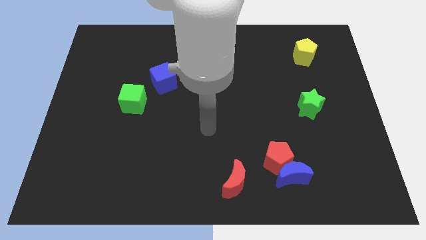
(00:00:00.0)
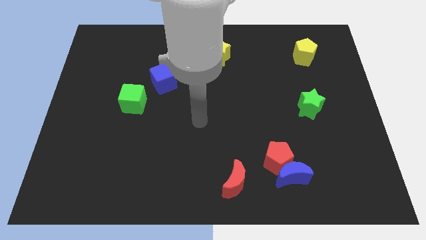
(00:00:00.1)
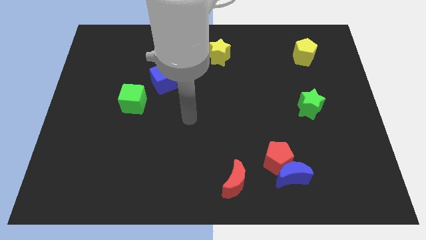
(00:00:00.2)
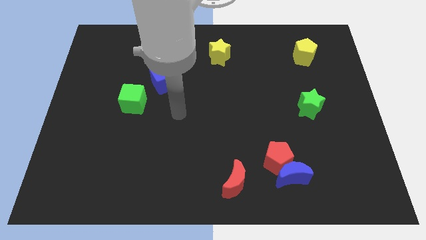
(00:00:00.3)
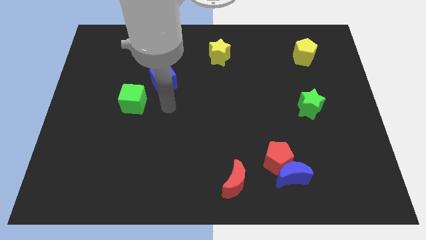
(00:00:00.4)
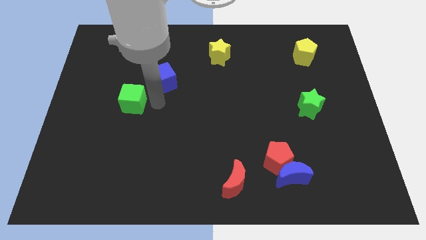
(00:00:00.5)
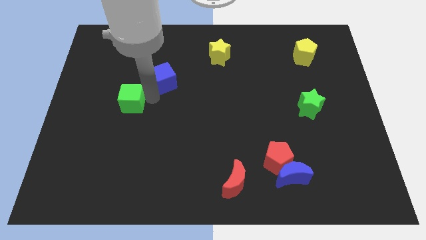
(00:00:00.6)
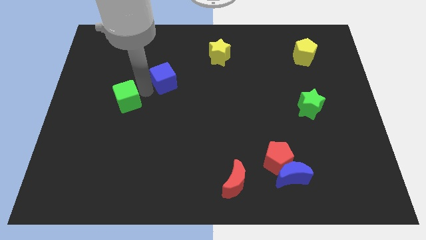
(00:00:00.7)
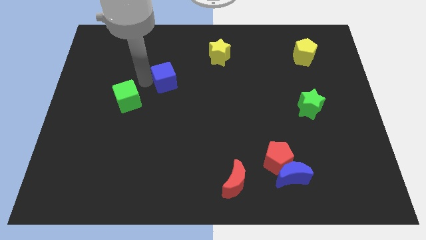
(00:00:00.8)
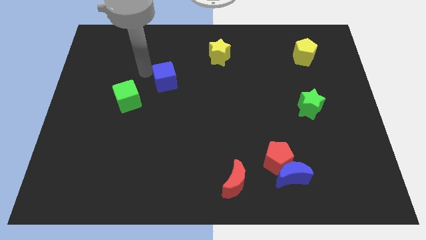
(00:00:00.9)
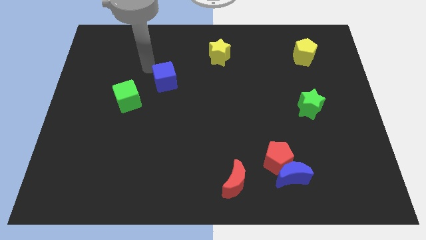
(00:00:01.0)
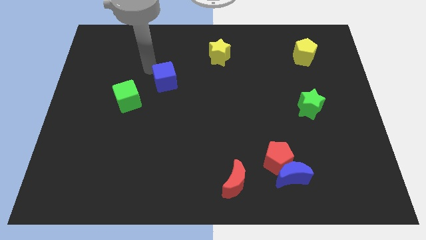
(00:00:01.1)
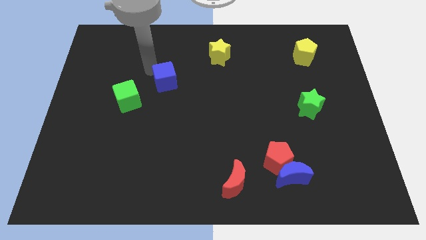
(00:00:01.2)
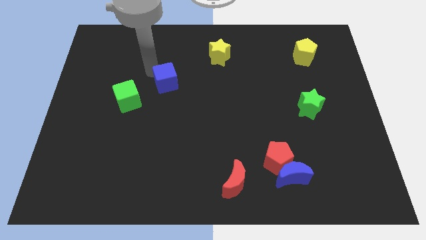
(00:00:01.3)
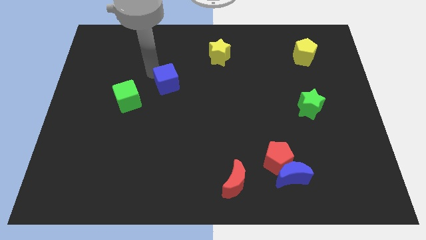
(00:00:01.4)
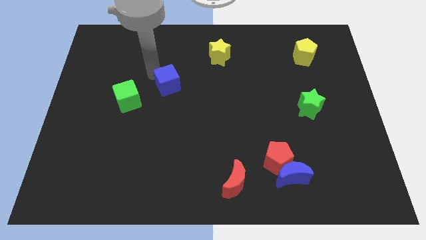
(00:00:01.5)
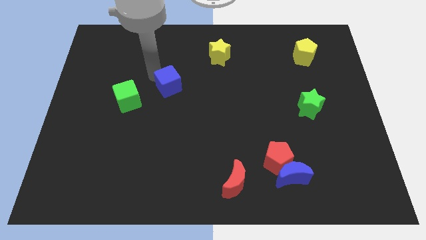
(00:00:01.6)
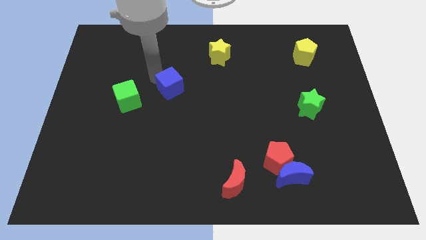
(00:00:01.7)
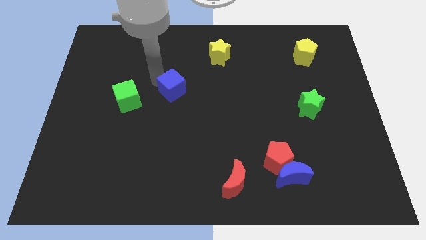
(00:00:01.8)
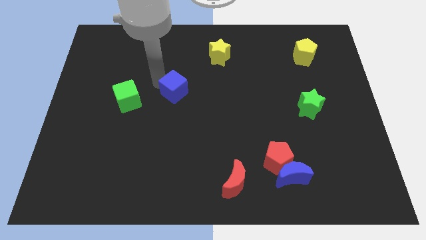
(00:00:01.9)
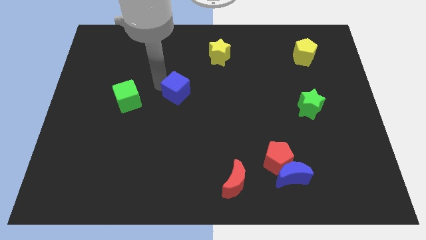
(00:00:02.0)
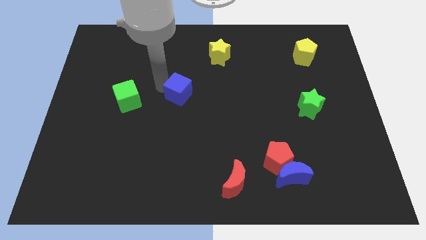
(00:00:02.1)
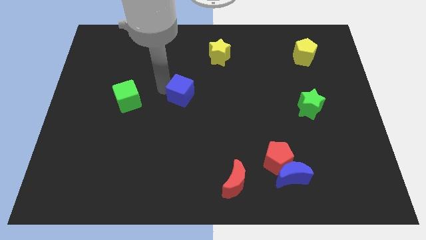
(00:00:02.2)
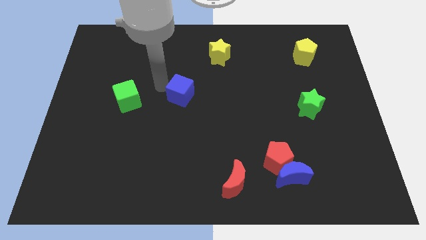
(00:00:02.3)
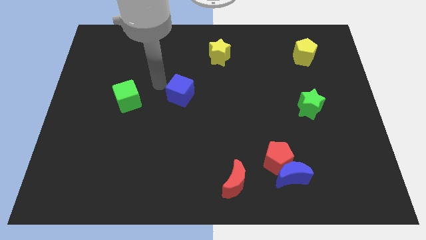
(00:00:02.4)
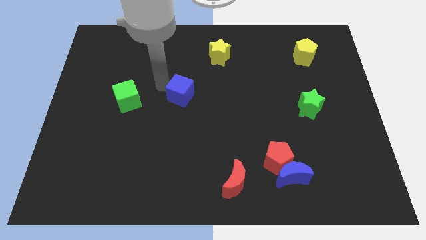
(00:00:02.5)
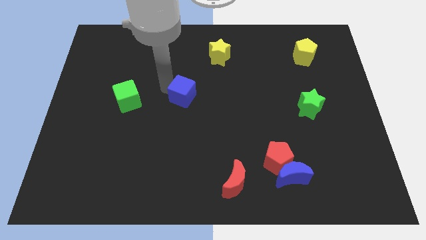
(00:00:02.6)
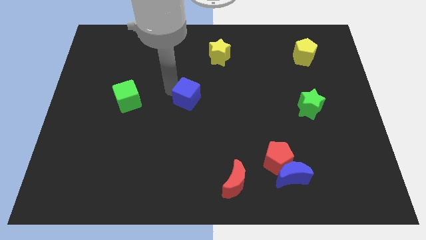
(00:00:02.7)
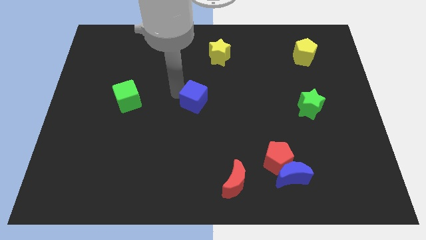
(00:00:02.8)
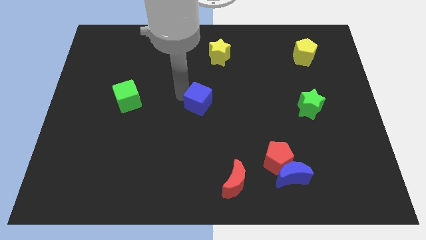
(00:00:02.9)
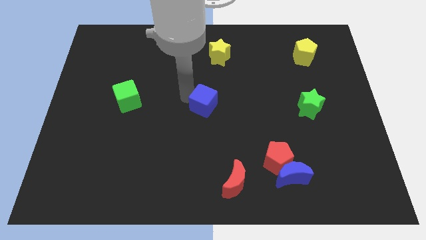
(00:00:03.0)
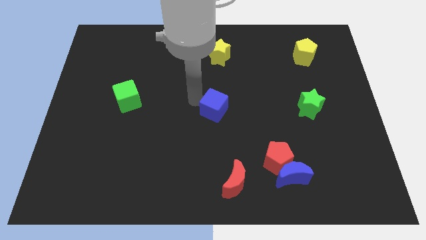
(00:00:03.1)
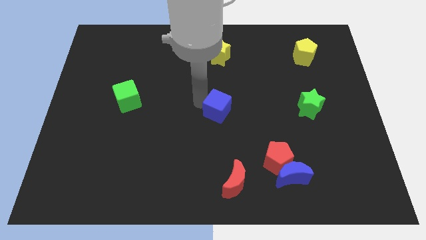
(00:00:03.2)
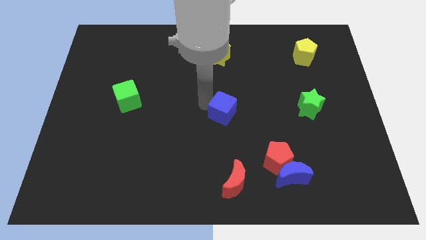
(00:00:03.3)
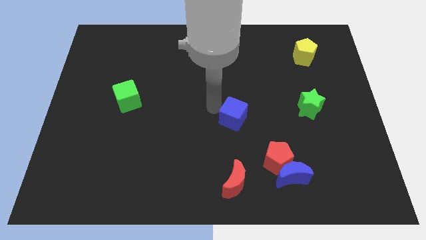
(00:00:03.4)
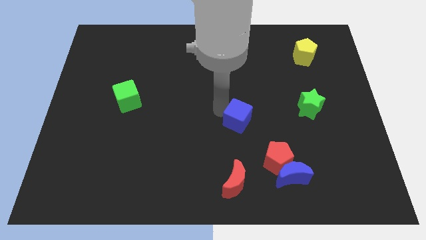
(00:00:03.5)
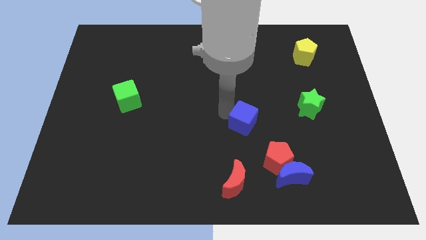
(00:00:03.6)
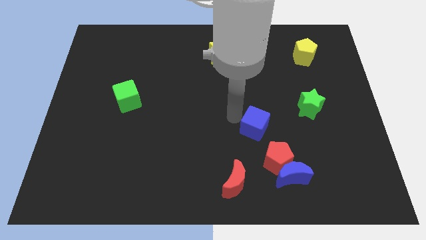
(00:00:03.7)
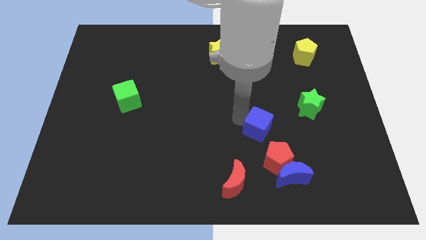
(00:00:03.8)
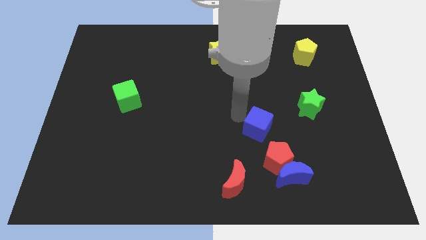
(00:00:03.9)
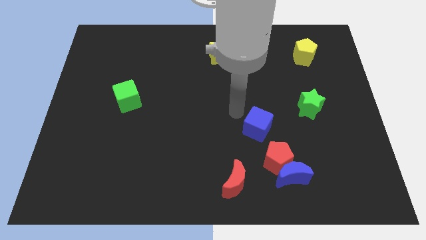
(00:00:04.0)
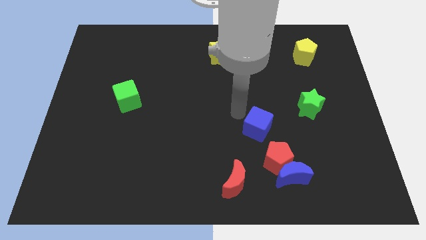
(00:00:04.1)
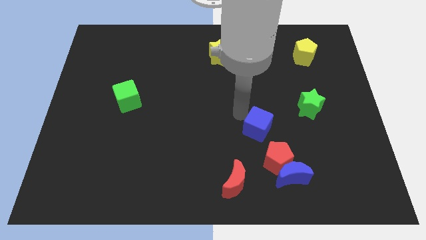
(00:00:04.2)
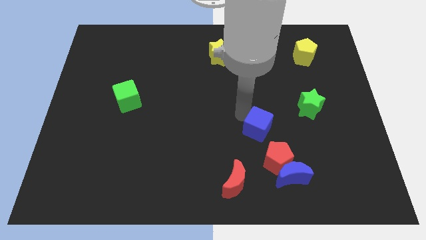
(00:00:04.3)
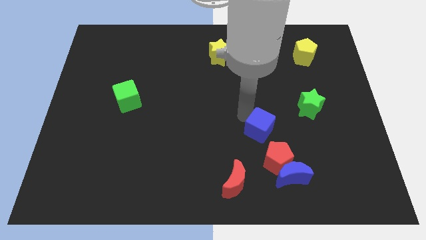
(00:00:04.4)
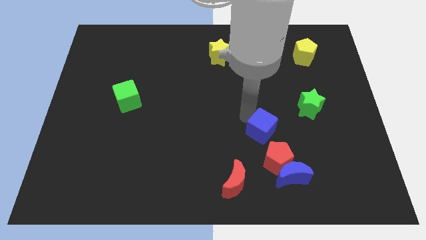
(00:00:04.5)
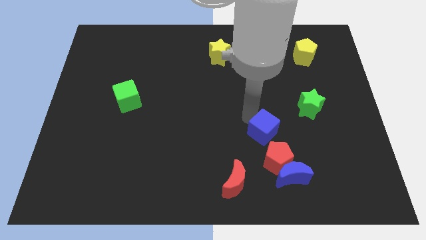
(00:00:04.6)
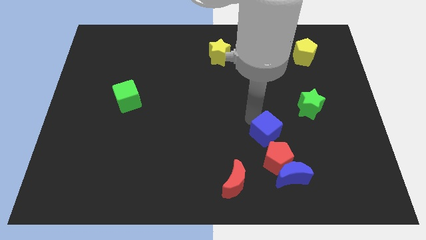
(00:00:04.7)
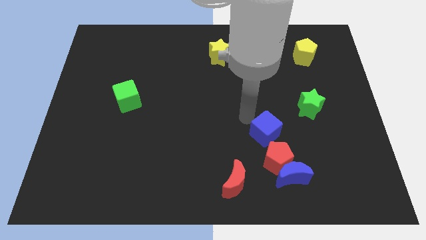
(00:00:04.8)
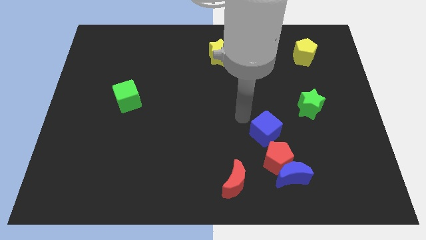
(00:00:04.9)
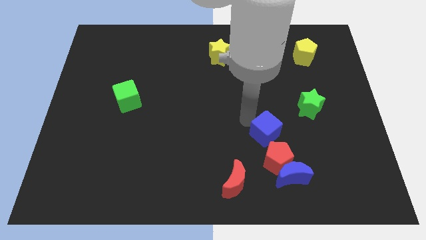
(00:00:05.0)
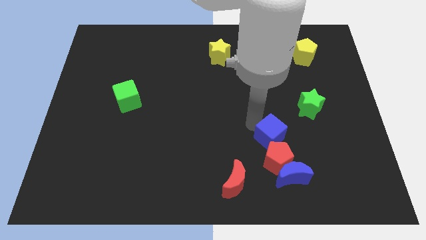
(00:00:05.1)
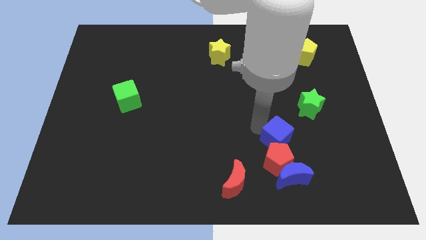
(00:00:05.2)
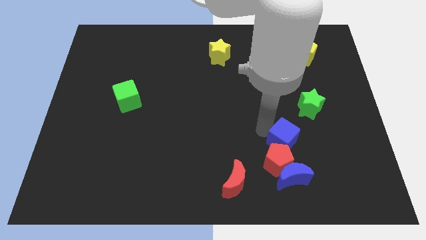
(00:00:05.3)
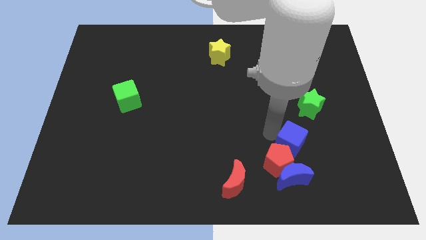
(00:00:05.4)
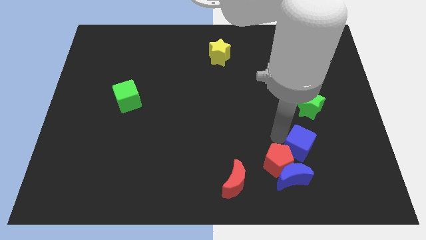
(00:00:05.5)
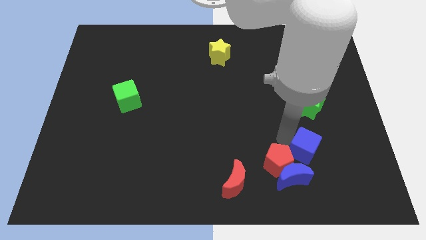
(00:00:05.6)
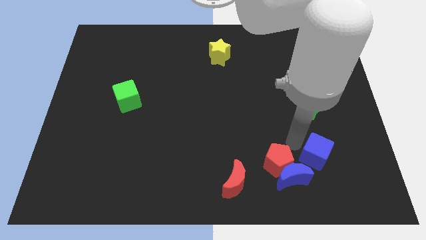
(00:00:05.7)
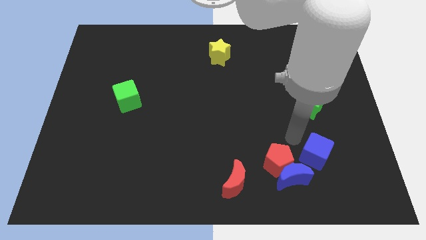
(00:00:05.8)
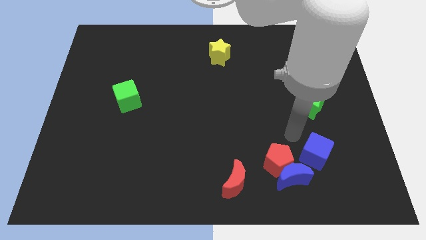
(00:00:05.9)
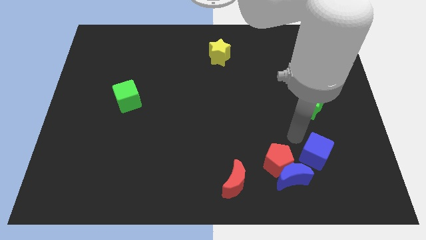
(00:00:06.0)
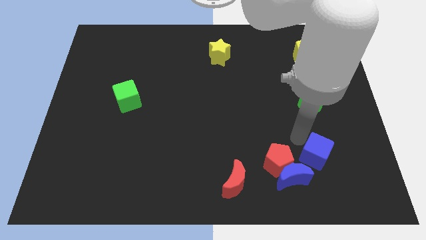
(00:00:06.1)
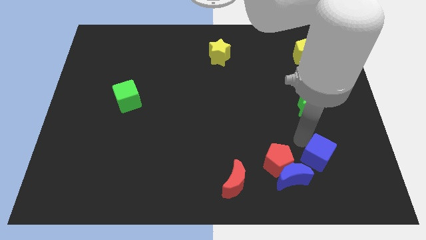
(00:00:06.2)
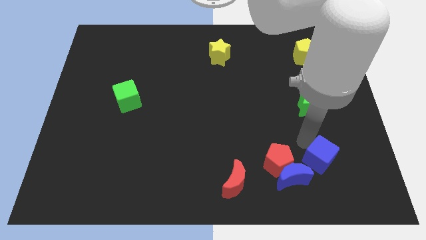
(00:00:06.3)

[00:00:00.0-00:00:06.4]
move the blue cube just right of the blue moon
